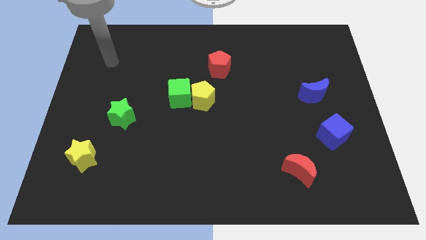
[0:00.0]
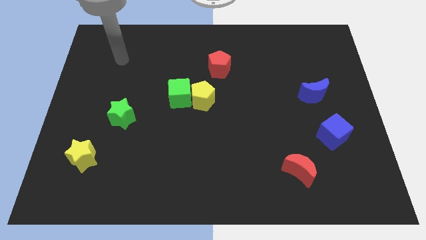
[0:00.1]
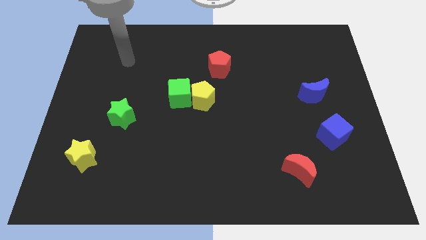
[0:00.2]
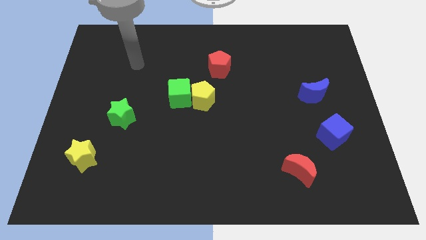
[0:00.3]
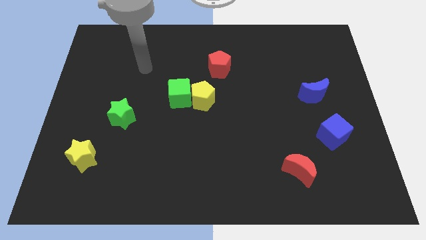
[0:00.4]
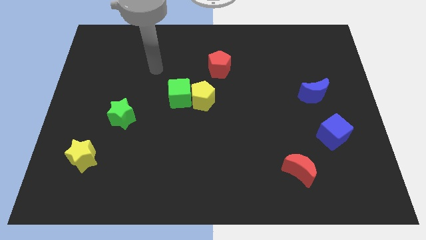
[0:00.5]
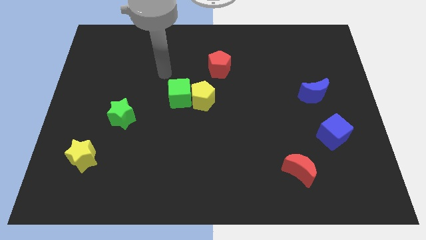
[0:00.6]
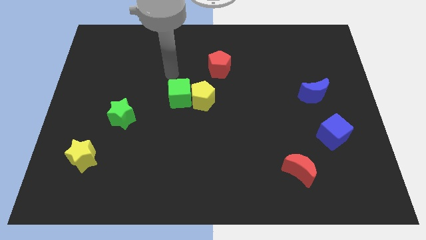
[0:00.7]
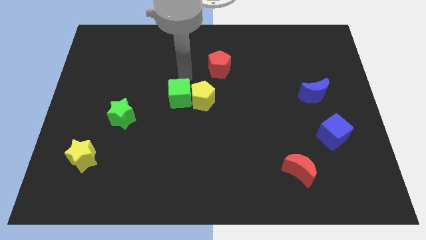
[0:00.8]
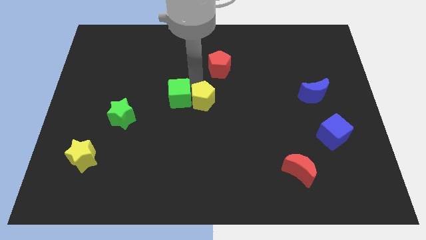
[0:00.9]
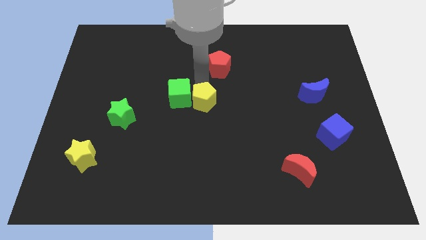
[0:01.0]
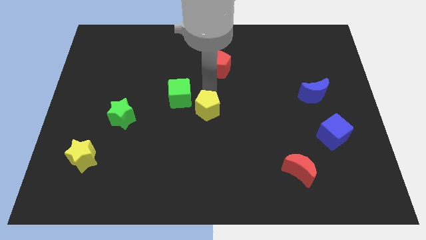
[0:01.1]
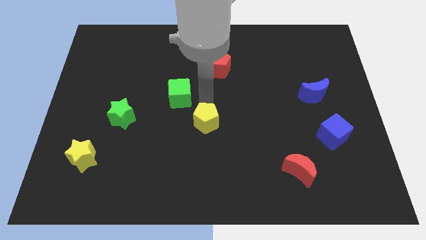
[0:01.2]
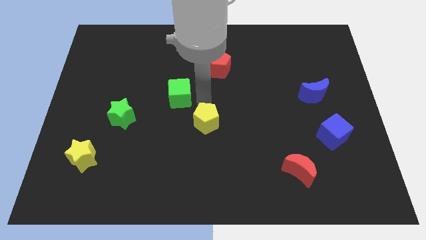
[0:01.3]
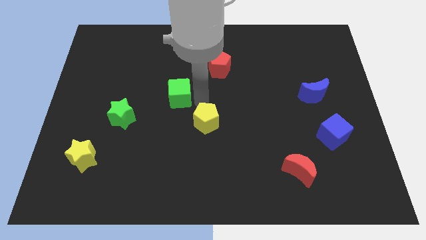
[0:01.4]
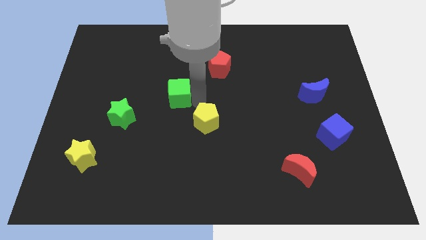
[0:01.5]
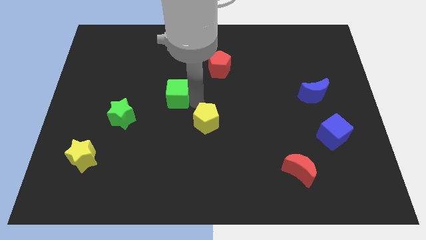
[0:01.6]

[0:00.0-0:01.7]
separate the green cube from the yellow pentagon

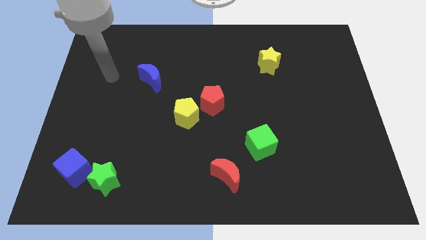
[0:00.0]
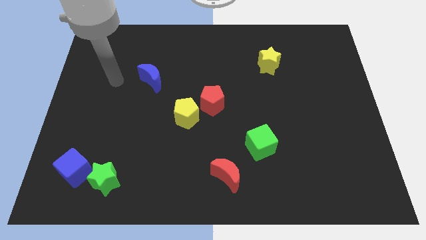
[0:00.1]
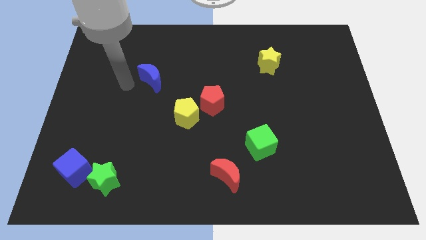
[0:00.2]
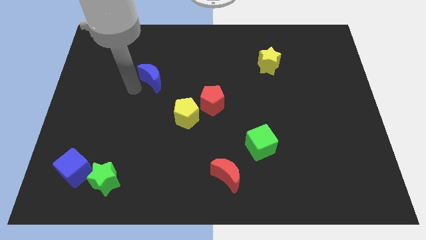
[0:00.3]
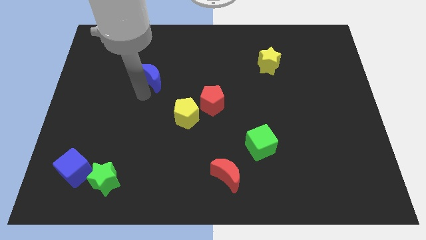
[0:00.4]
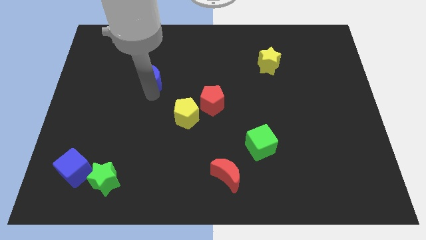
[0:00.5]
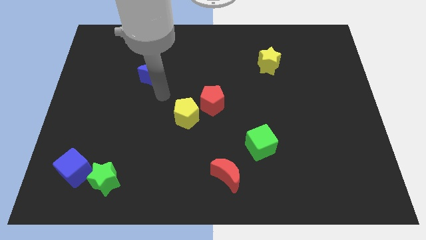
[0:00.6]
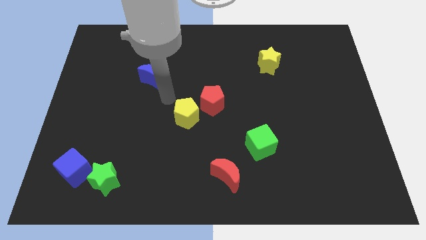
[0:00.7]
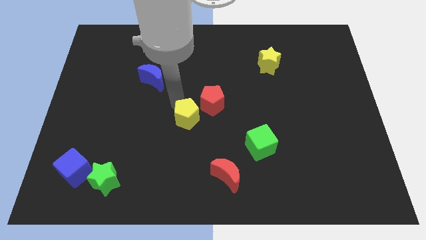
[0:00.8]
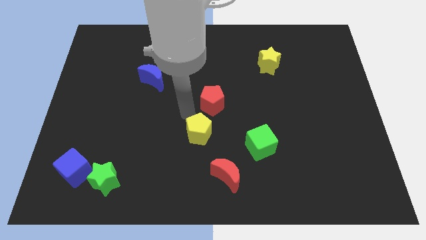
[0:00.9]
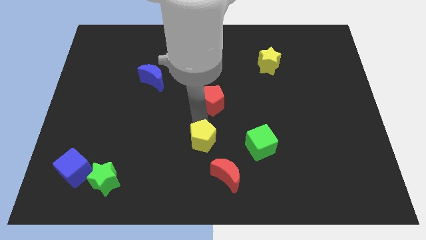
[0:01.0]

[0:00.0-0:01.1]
move the red pentagon away from the yellow pentagon

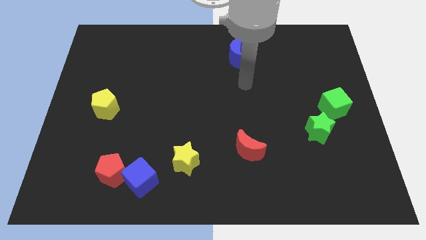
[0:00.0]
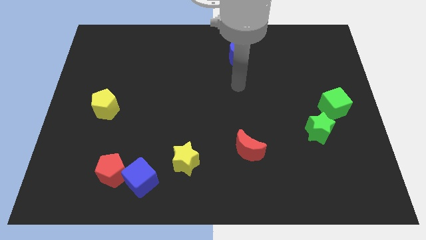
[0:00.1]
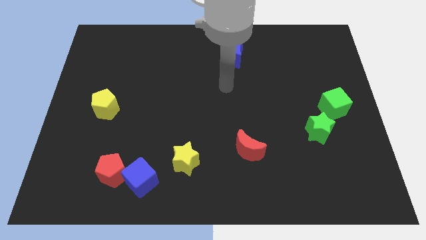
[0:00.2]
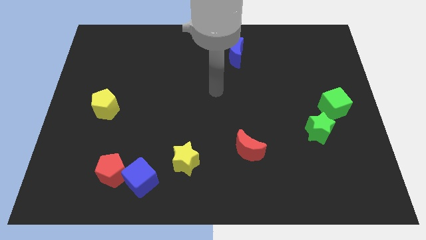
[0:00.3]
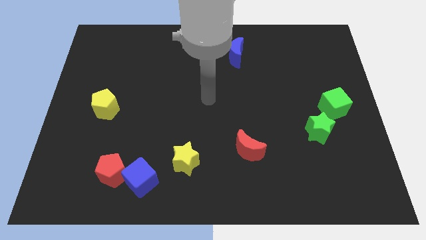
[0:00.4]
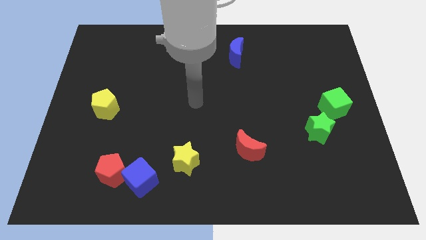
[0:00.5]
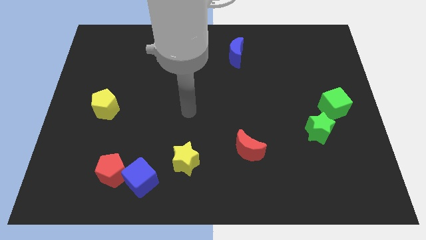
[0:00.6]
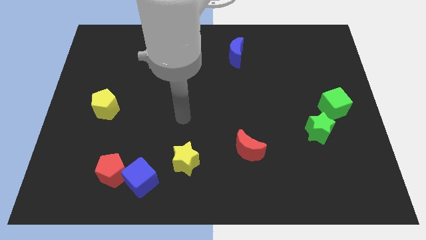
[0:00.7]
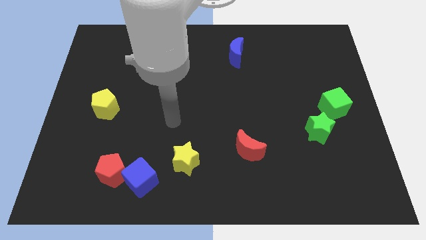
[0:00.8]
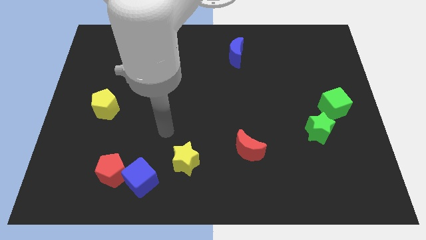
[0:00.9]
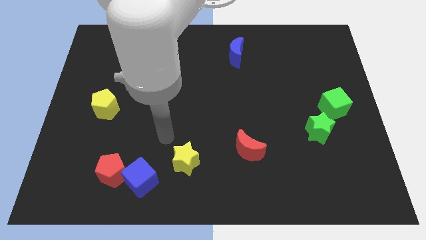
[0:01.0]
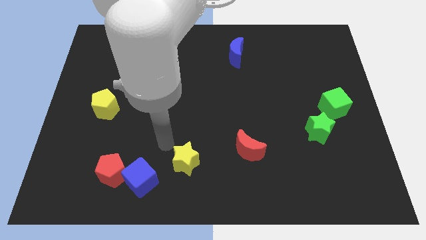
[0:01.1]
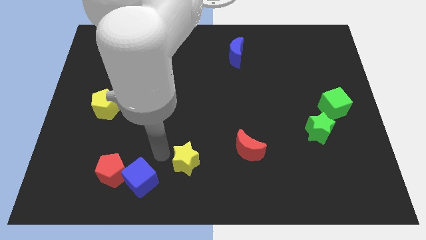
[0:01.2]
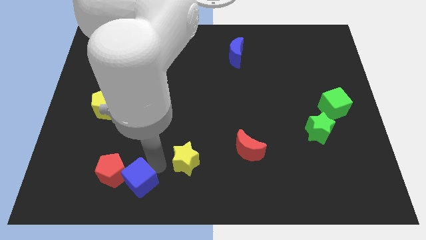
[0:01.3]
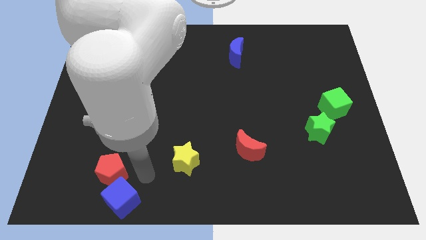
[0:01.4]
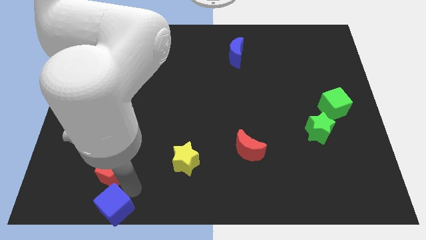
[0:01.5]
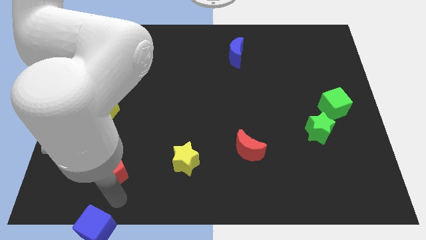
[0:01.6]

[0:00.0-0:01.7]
separate the red pentagon from the blue cube

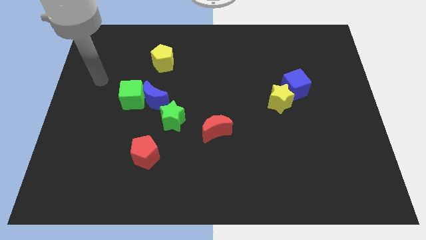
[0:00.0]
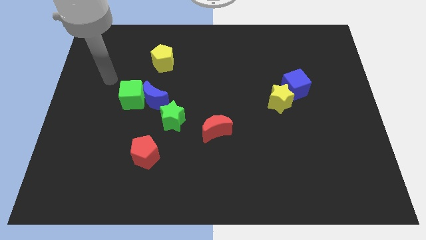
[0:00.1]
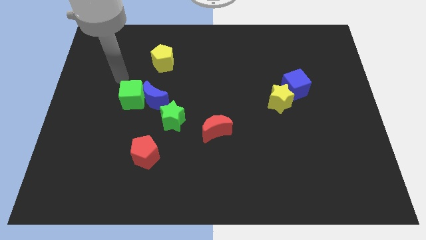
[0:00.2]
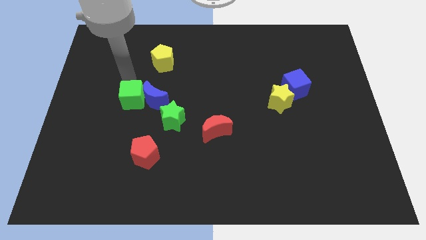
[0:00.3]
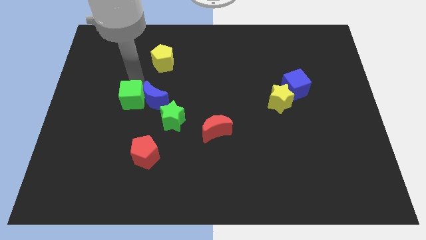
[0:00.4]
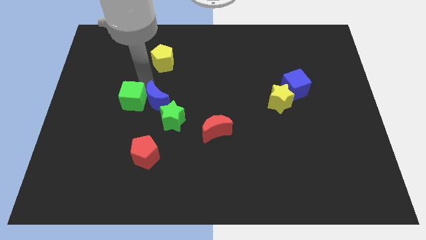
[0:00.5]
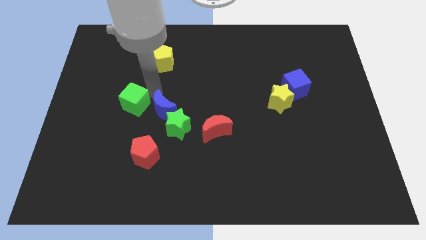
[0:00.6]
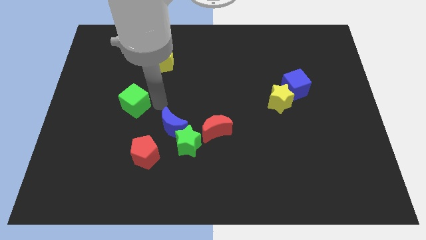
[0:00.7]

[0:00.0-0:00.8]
move the green cube away from the blue moon

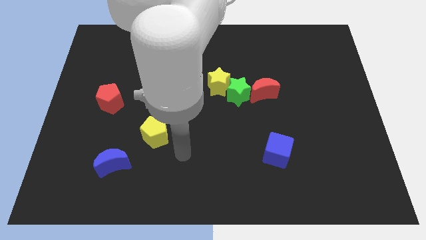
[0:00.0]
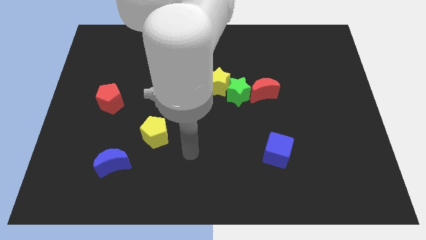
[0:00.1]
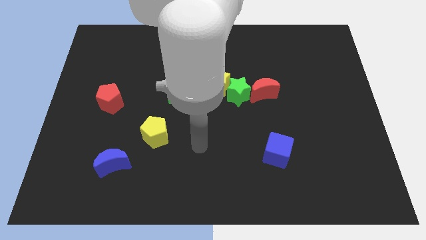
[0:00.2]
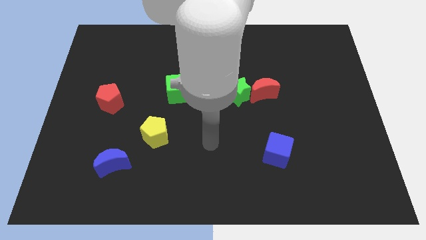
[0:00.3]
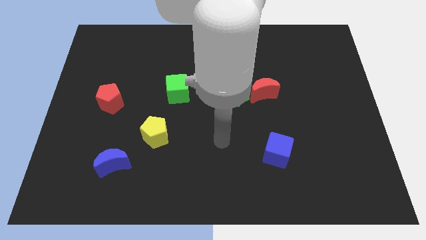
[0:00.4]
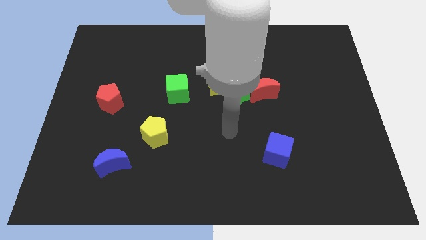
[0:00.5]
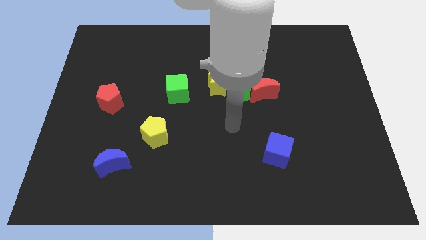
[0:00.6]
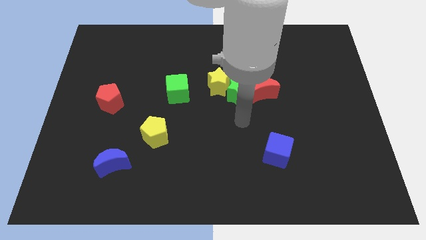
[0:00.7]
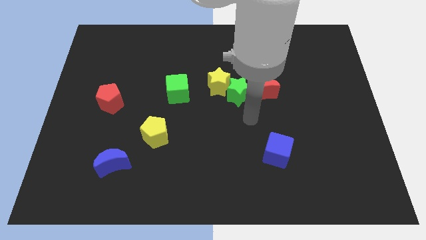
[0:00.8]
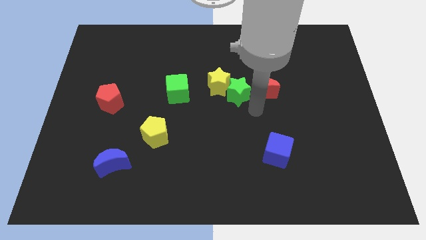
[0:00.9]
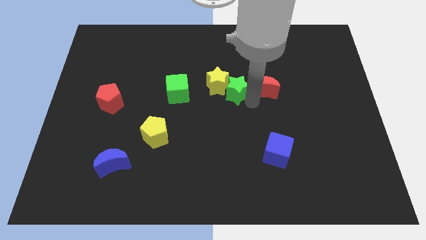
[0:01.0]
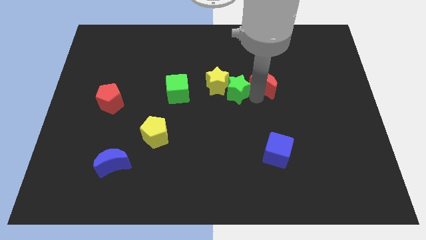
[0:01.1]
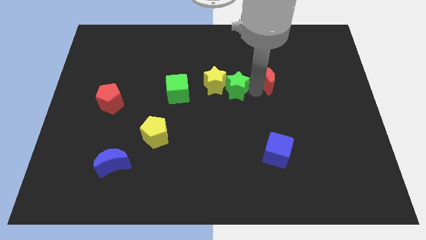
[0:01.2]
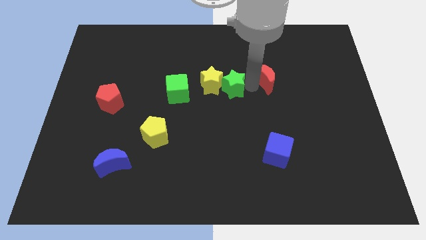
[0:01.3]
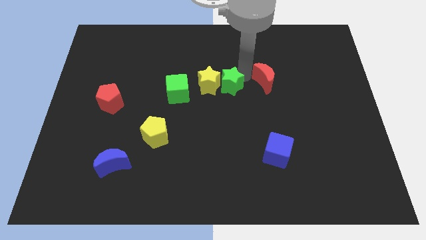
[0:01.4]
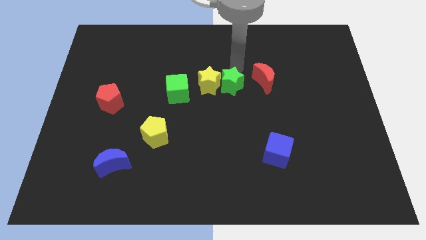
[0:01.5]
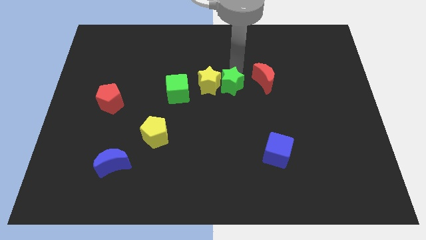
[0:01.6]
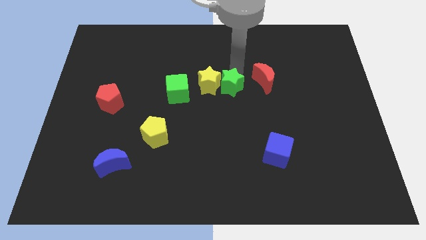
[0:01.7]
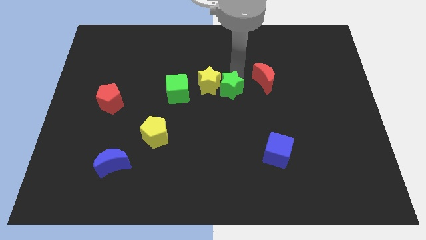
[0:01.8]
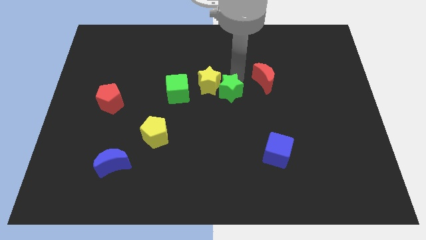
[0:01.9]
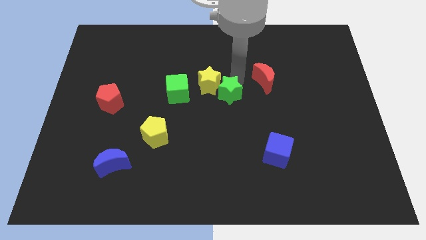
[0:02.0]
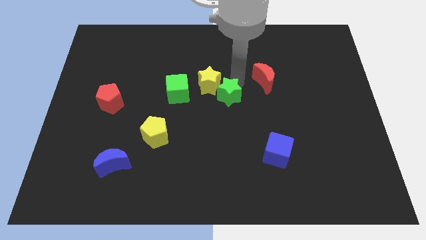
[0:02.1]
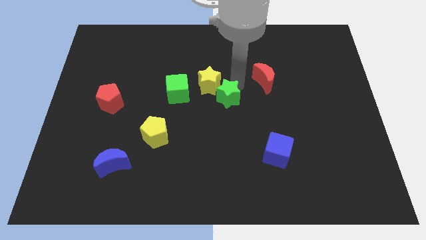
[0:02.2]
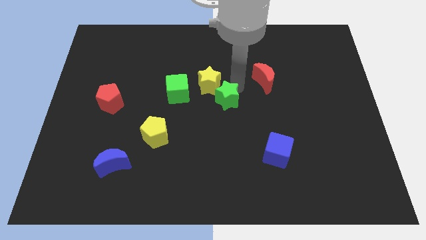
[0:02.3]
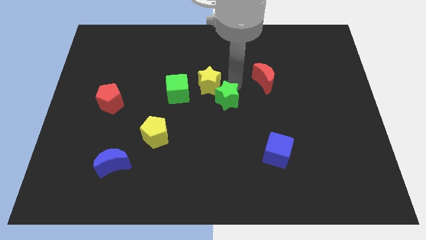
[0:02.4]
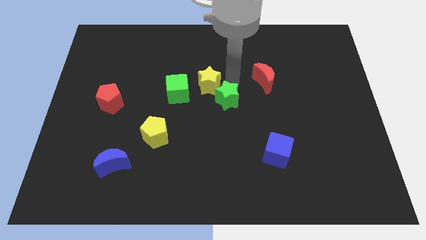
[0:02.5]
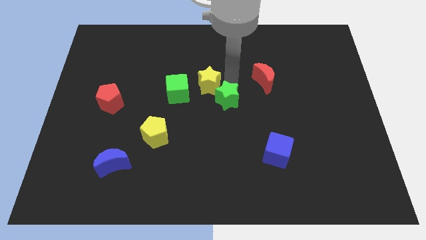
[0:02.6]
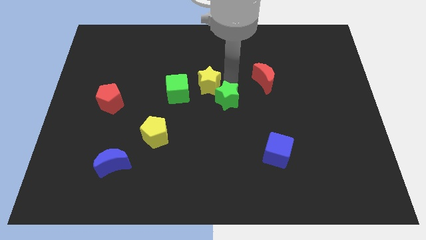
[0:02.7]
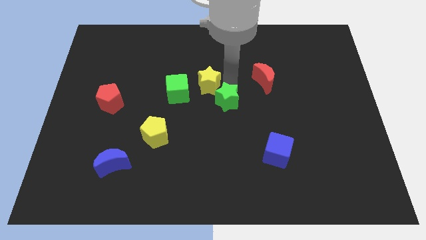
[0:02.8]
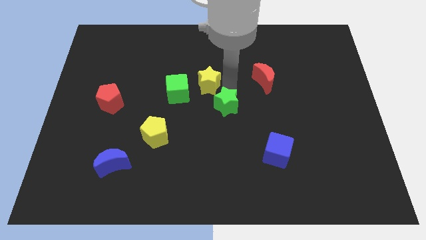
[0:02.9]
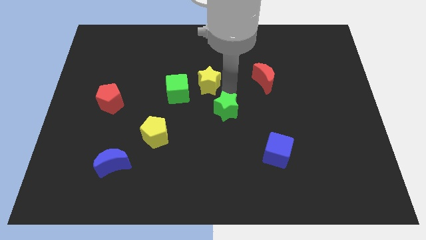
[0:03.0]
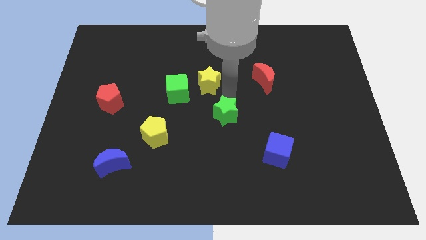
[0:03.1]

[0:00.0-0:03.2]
separate the green star from the yellow star and red moon

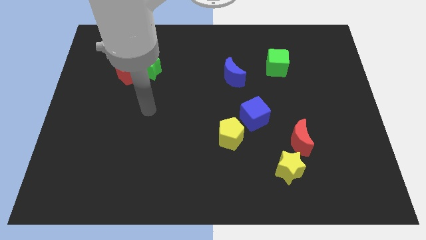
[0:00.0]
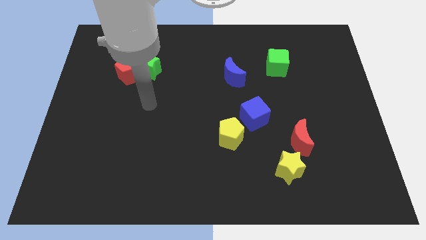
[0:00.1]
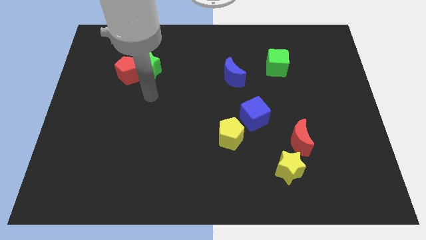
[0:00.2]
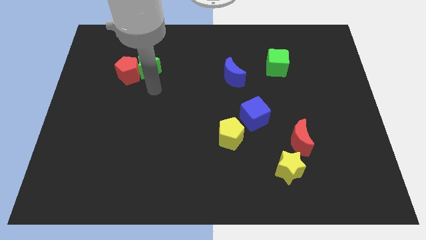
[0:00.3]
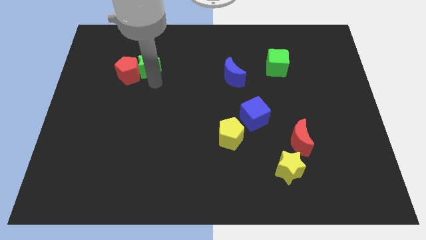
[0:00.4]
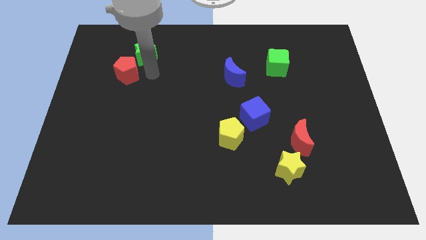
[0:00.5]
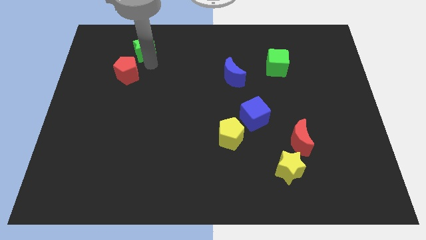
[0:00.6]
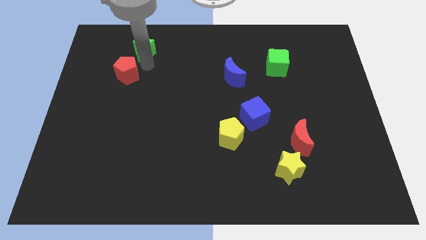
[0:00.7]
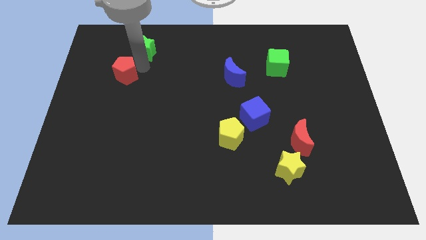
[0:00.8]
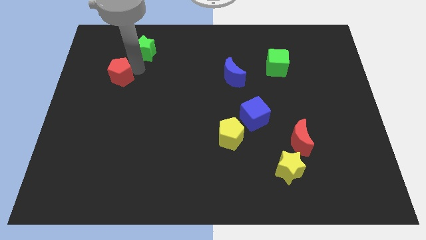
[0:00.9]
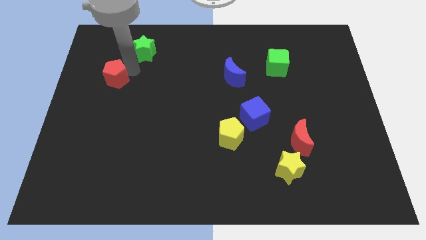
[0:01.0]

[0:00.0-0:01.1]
separate the red pentagon from the green star
